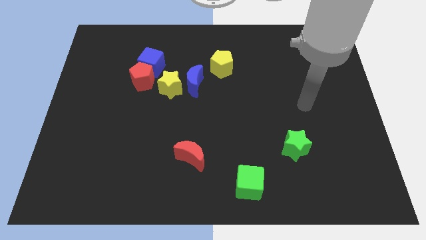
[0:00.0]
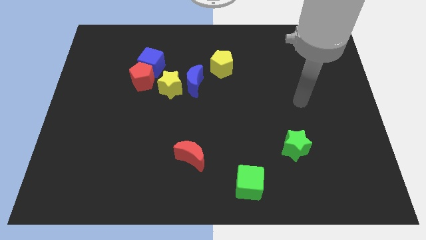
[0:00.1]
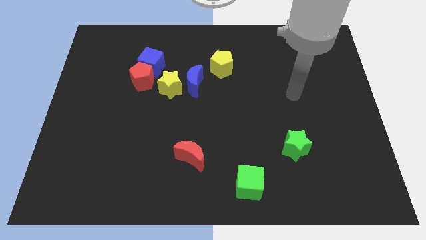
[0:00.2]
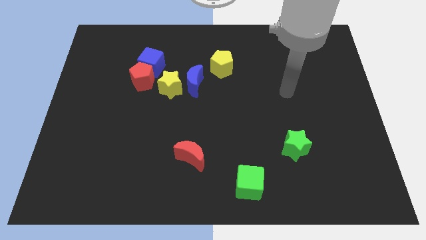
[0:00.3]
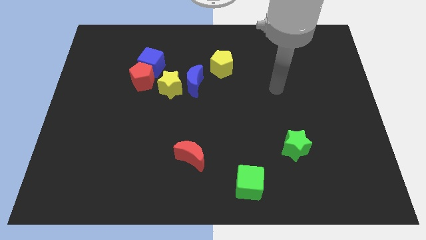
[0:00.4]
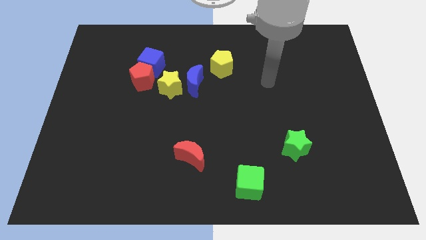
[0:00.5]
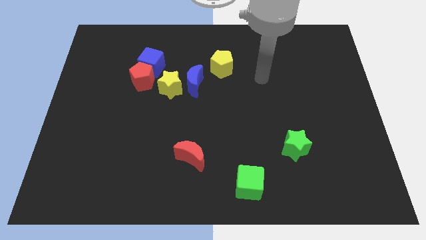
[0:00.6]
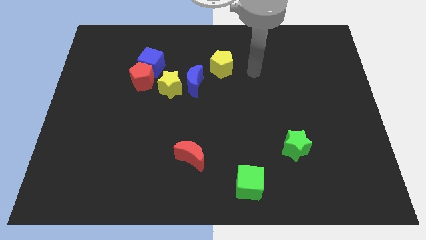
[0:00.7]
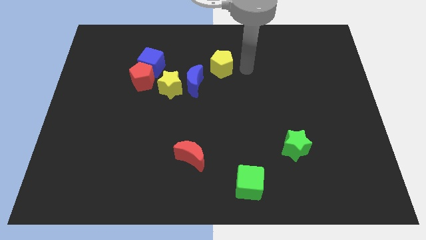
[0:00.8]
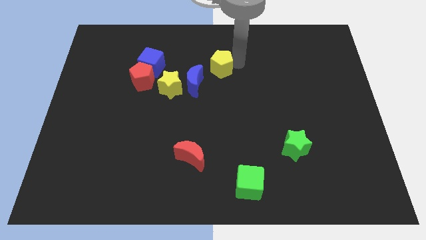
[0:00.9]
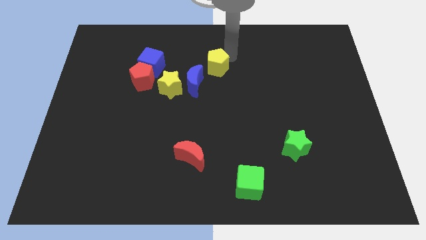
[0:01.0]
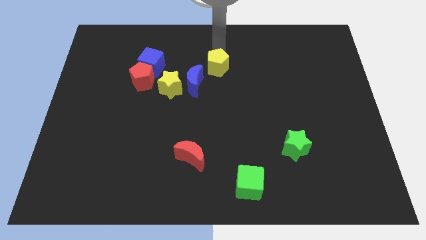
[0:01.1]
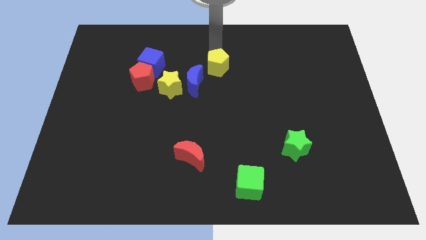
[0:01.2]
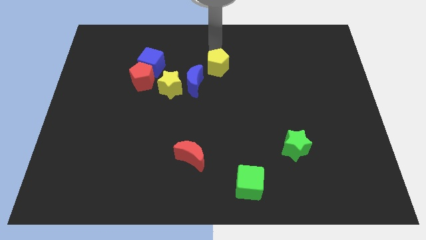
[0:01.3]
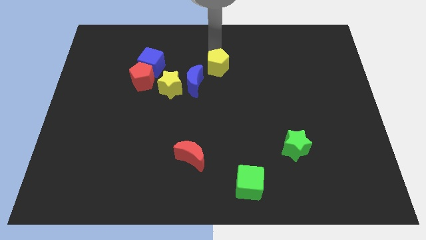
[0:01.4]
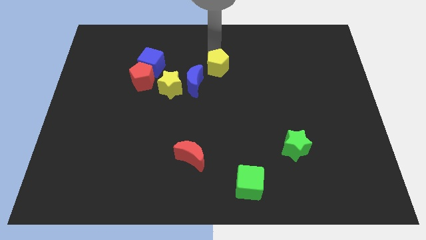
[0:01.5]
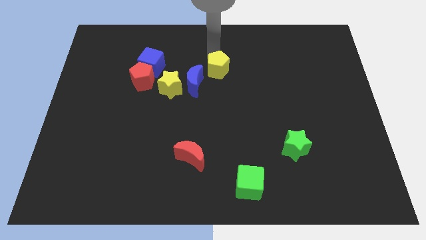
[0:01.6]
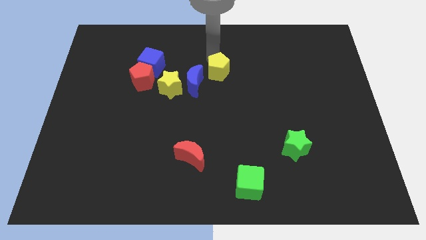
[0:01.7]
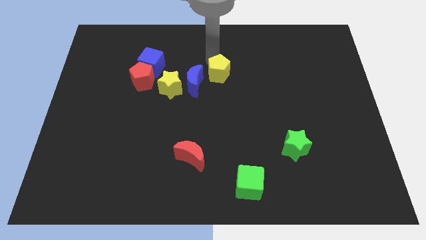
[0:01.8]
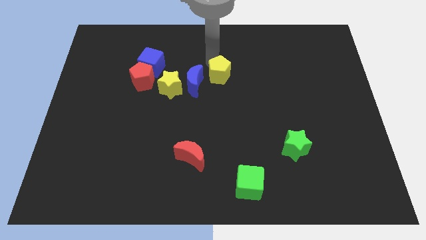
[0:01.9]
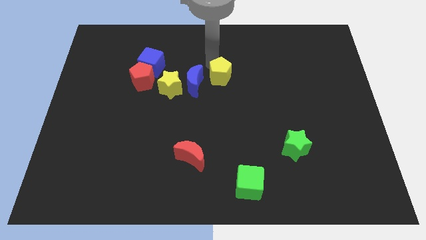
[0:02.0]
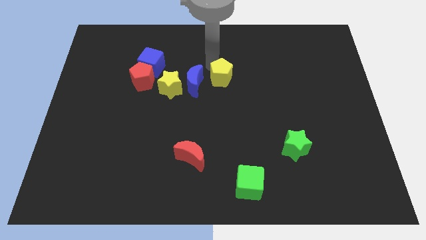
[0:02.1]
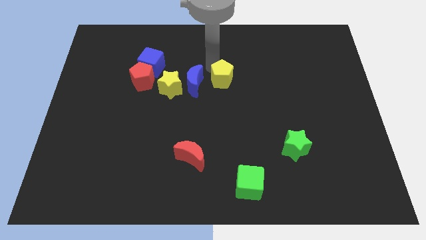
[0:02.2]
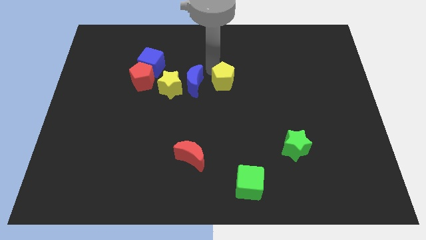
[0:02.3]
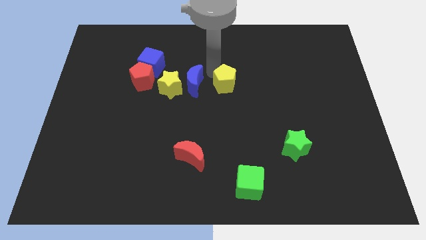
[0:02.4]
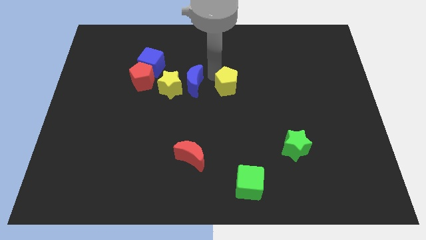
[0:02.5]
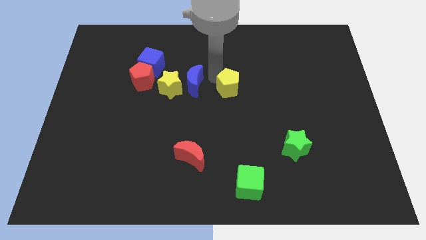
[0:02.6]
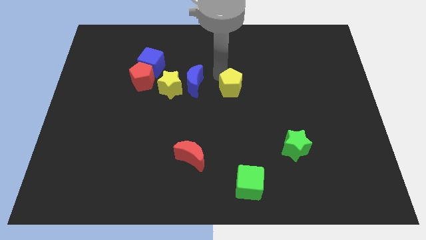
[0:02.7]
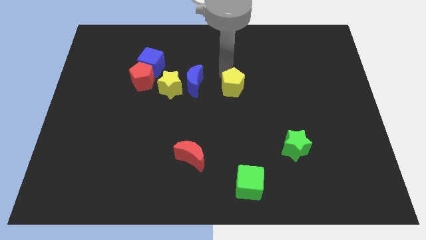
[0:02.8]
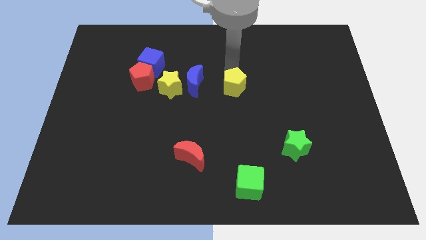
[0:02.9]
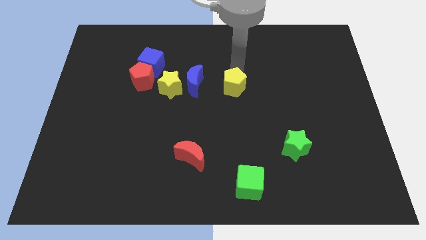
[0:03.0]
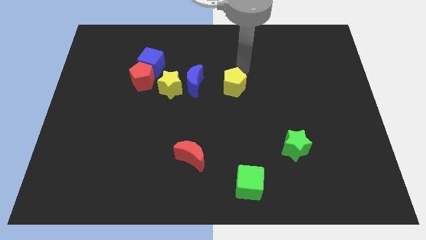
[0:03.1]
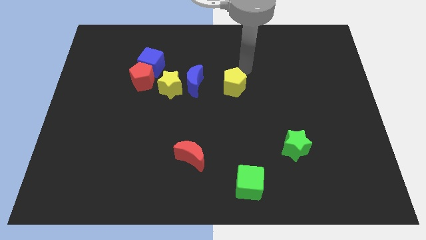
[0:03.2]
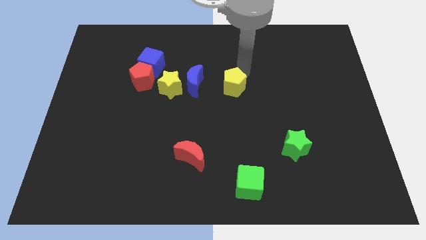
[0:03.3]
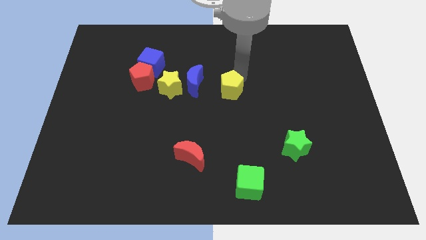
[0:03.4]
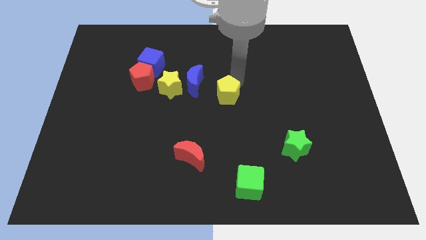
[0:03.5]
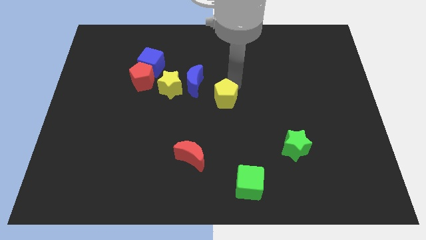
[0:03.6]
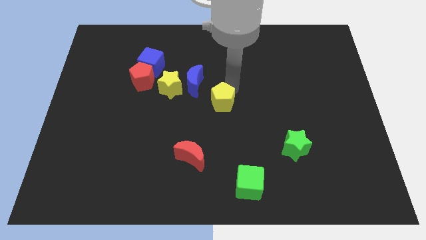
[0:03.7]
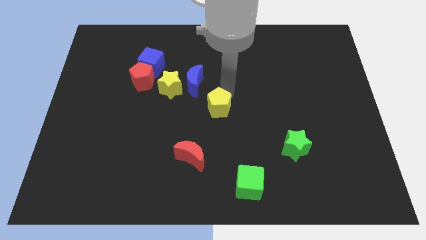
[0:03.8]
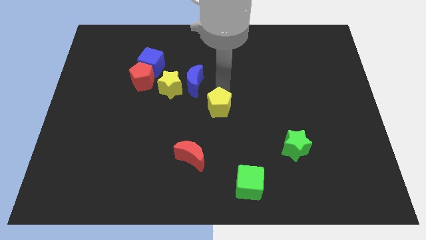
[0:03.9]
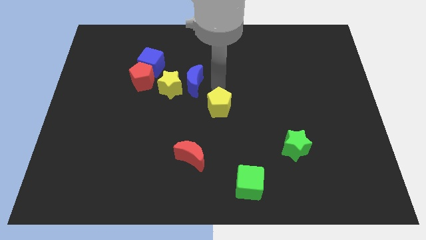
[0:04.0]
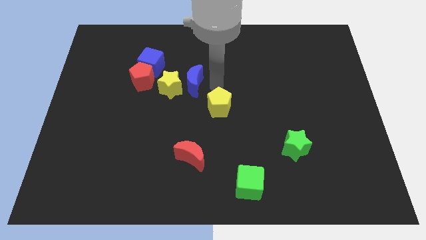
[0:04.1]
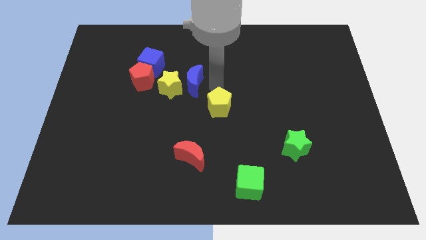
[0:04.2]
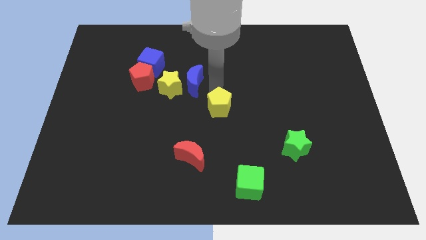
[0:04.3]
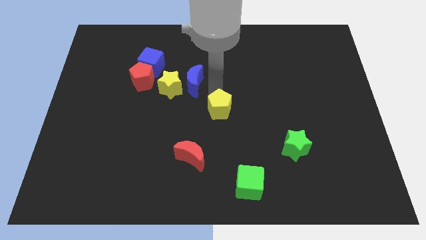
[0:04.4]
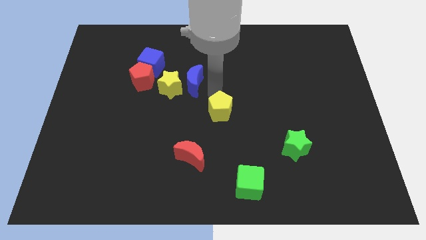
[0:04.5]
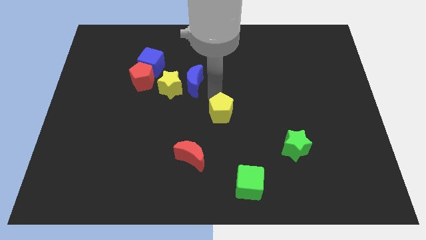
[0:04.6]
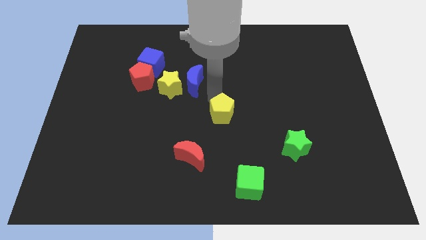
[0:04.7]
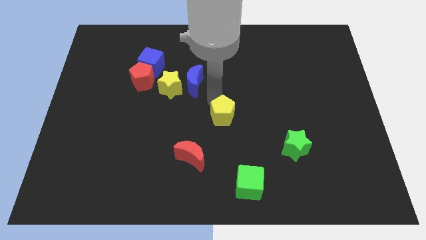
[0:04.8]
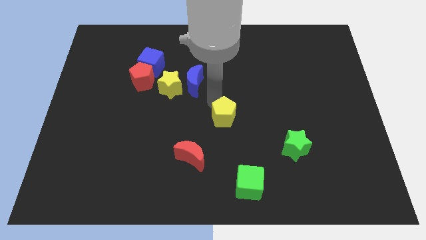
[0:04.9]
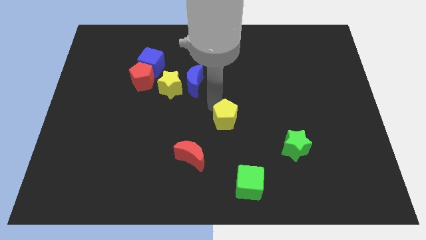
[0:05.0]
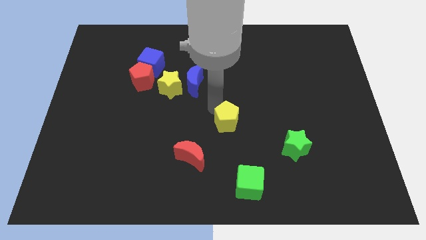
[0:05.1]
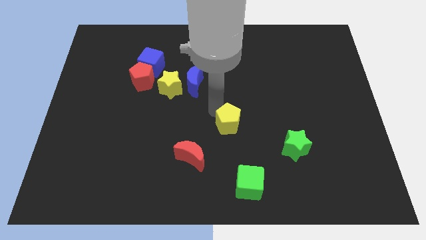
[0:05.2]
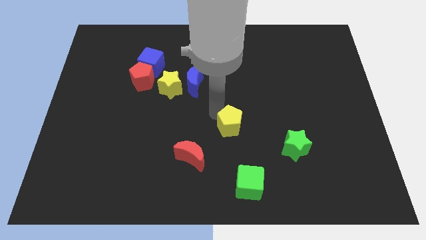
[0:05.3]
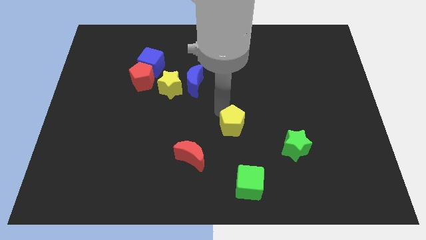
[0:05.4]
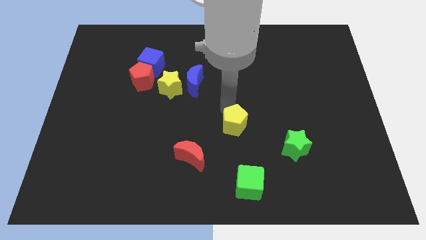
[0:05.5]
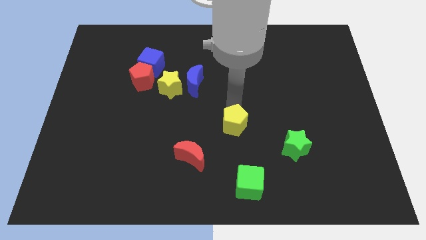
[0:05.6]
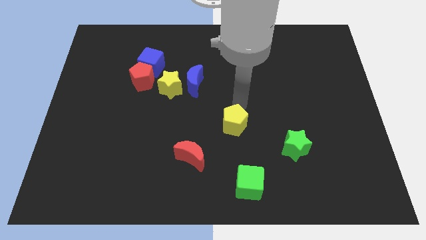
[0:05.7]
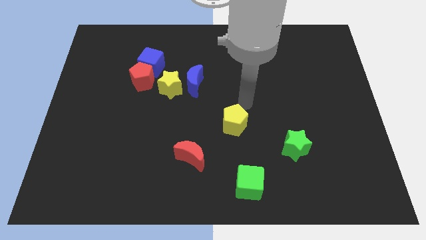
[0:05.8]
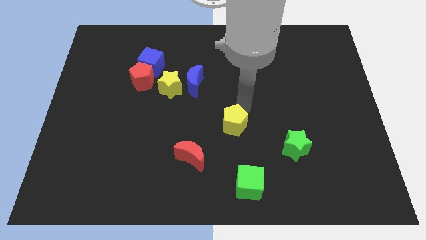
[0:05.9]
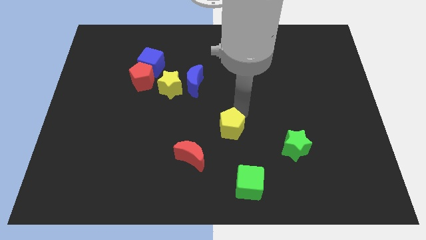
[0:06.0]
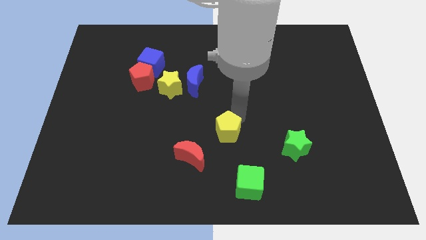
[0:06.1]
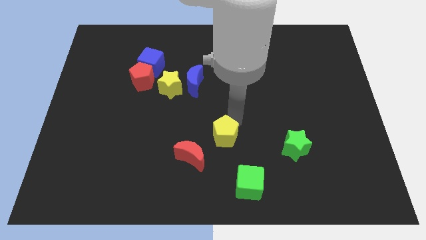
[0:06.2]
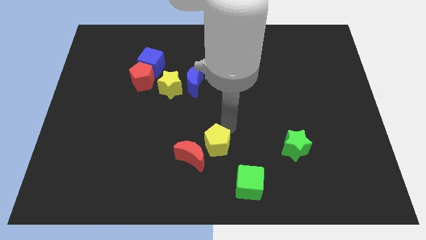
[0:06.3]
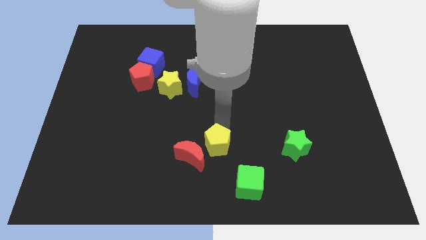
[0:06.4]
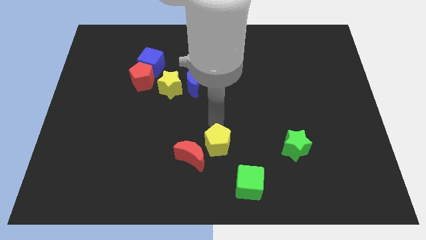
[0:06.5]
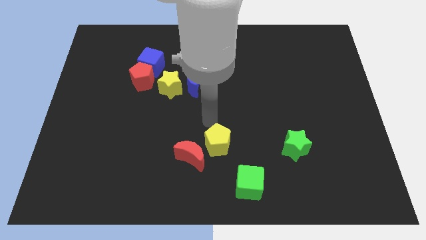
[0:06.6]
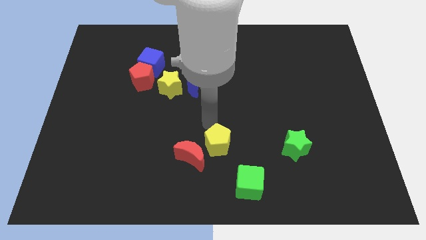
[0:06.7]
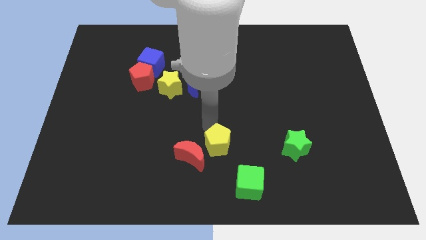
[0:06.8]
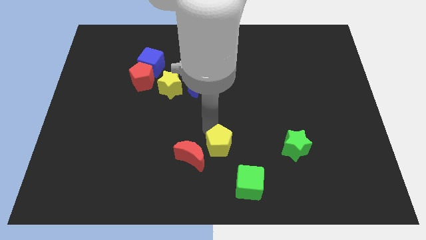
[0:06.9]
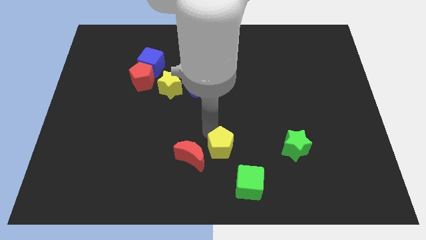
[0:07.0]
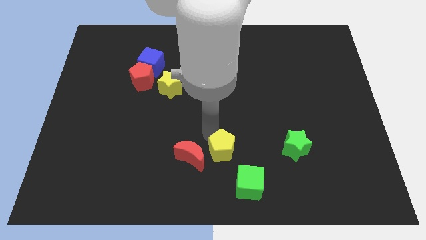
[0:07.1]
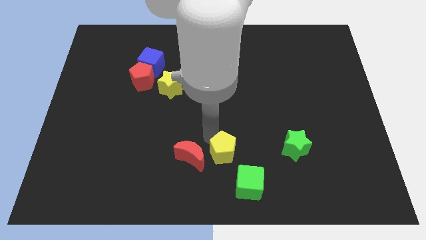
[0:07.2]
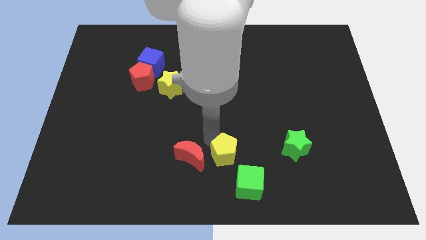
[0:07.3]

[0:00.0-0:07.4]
move the yellow pentagon to the bottom

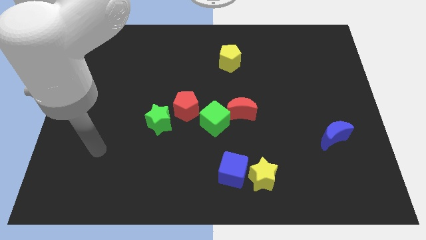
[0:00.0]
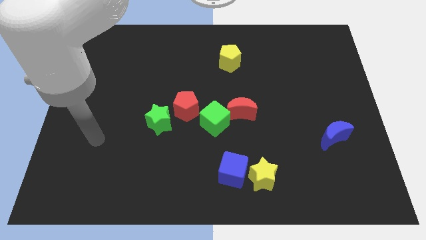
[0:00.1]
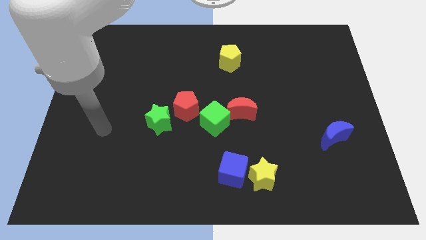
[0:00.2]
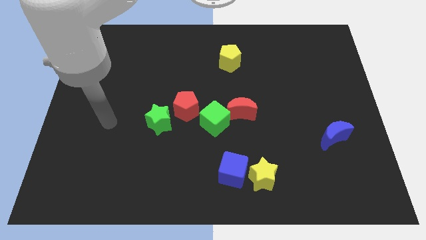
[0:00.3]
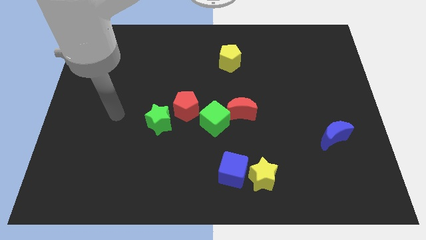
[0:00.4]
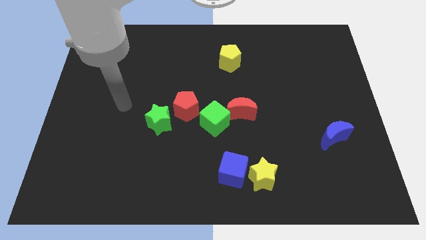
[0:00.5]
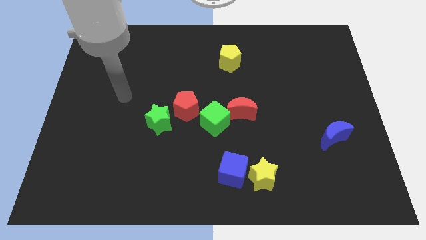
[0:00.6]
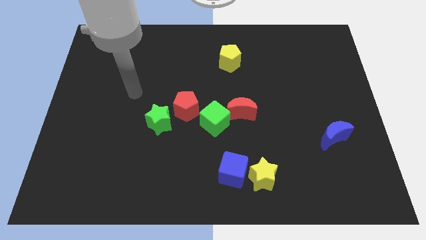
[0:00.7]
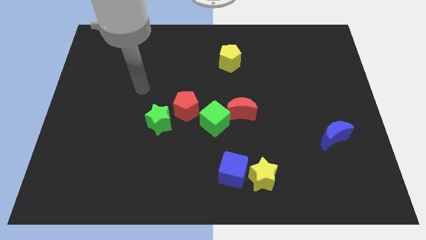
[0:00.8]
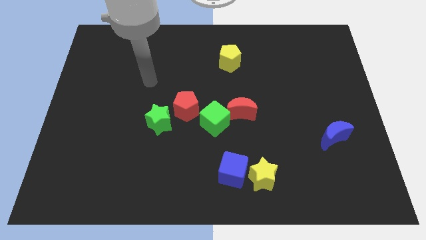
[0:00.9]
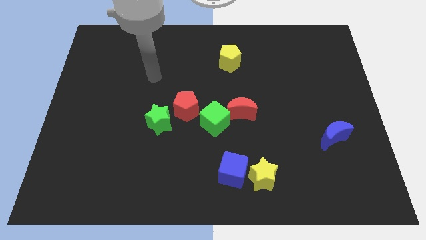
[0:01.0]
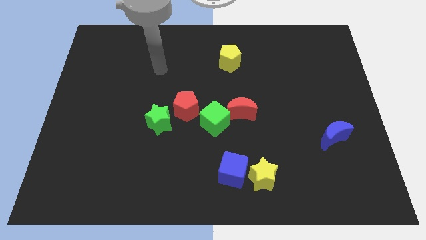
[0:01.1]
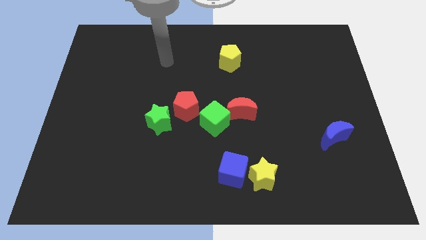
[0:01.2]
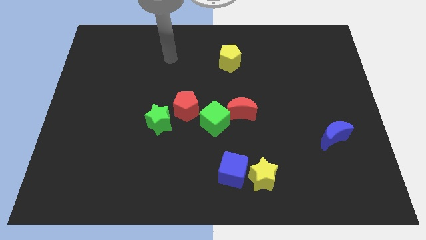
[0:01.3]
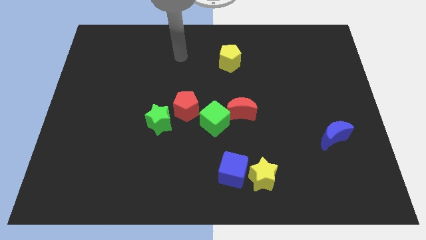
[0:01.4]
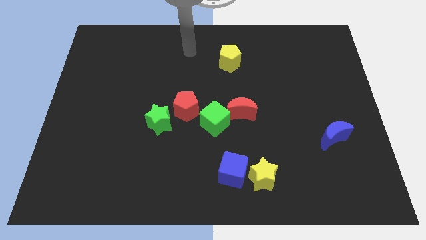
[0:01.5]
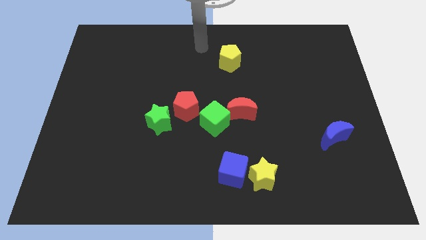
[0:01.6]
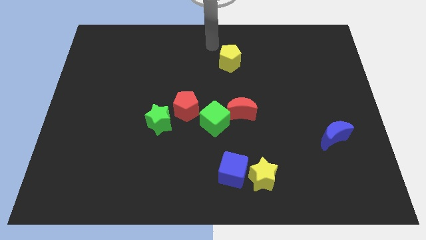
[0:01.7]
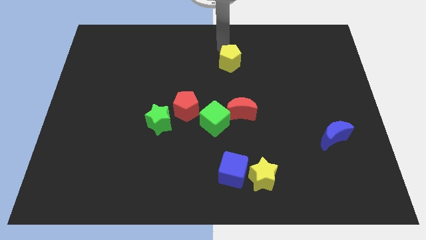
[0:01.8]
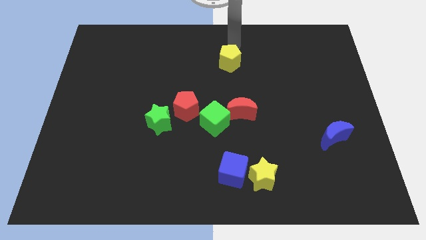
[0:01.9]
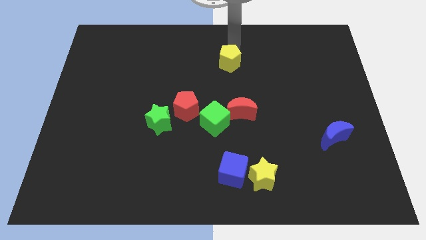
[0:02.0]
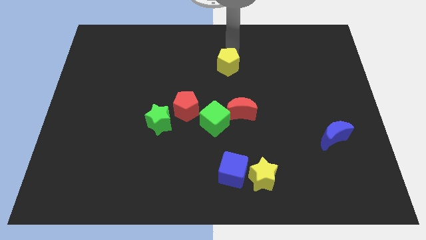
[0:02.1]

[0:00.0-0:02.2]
put the yellow pentagon to the middle of the board
